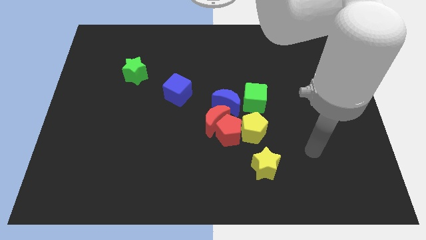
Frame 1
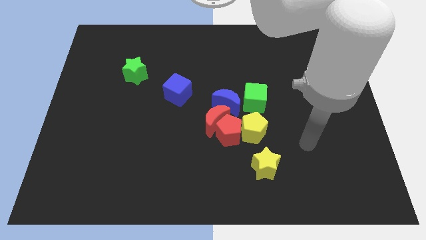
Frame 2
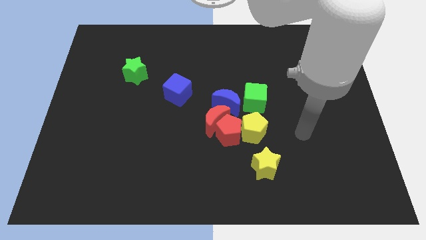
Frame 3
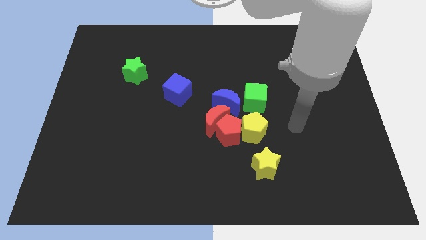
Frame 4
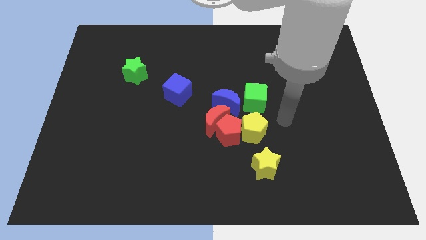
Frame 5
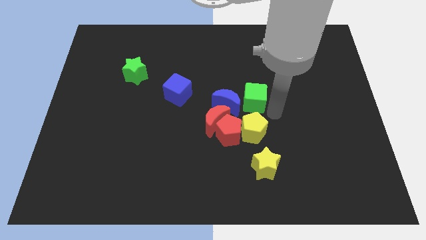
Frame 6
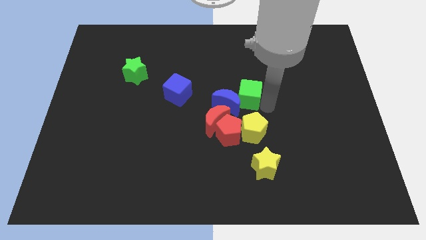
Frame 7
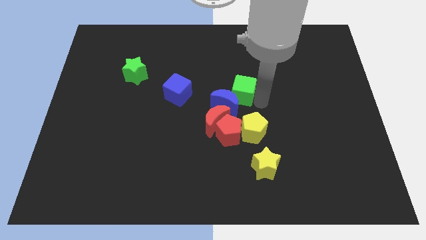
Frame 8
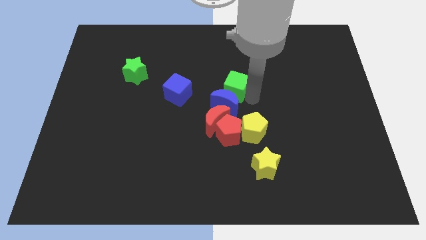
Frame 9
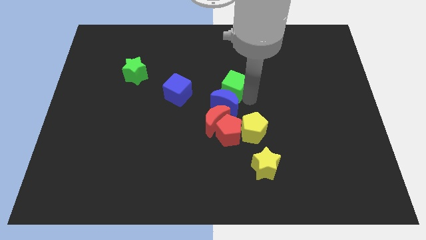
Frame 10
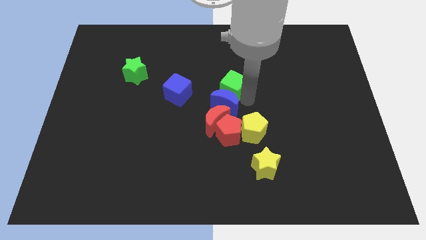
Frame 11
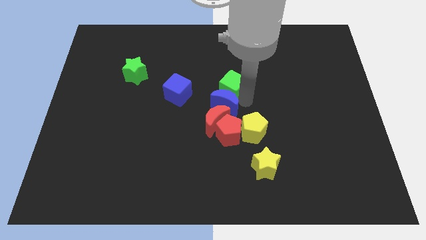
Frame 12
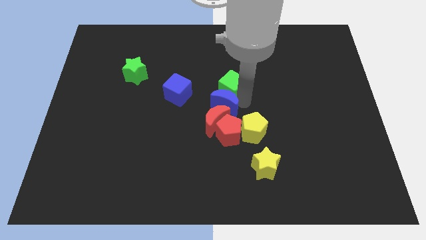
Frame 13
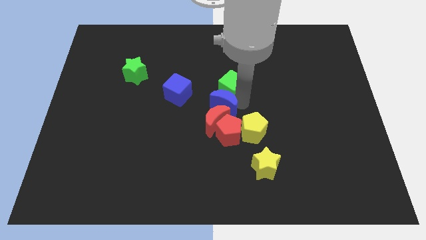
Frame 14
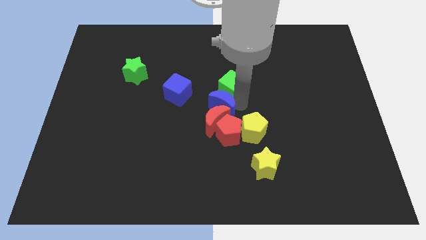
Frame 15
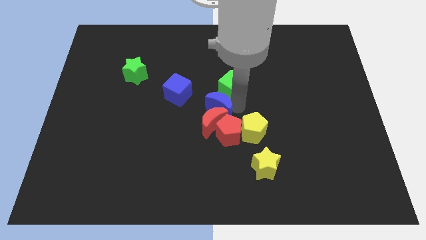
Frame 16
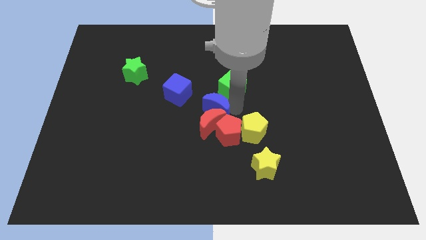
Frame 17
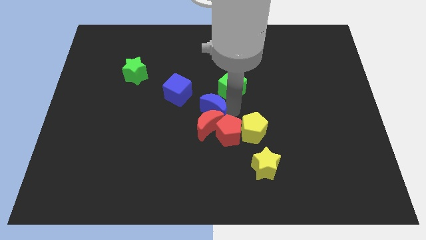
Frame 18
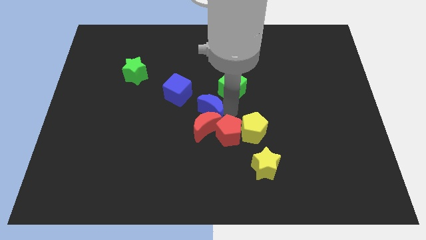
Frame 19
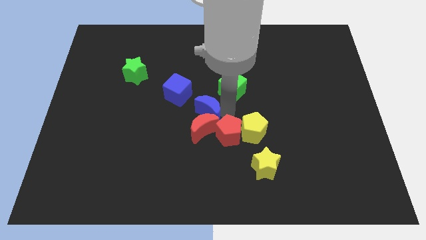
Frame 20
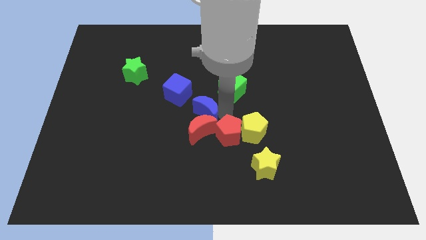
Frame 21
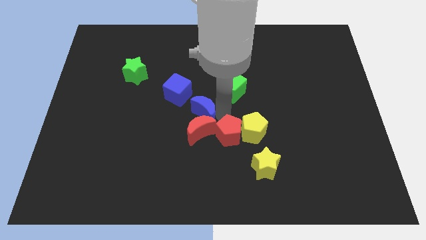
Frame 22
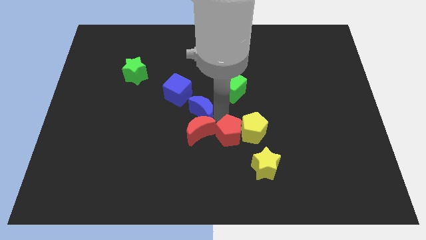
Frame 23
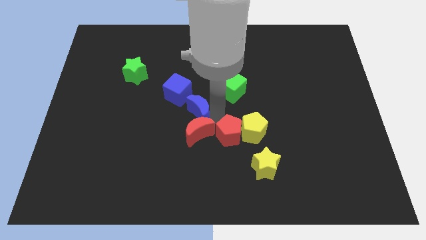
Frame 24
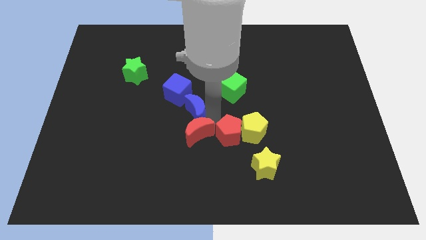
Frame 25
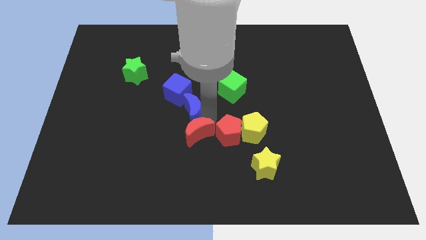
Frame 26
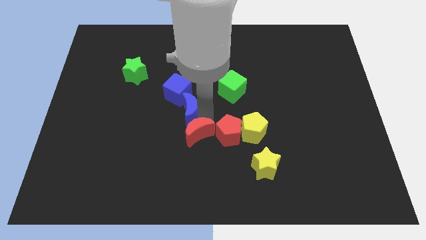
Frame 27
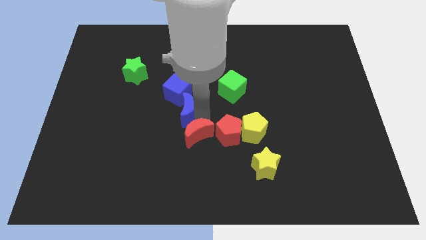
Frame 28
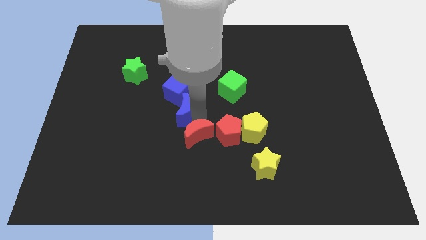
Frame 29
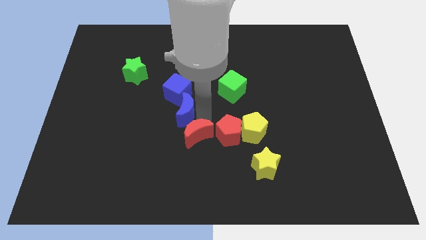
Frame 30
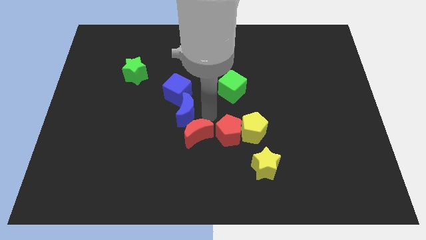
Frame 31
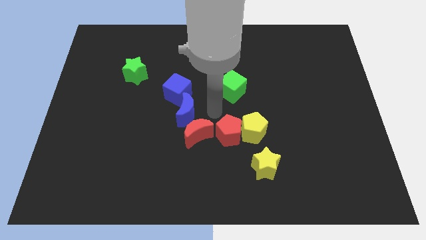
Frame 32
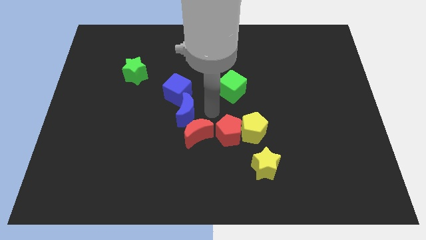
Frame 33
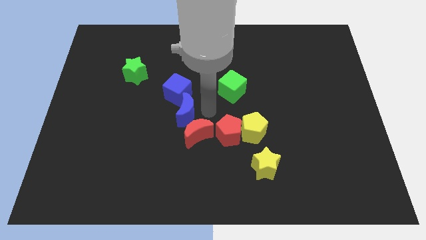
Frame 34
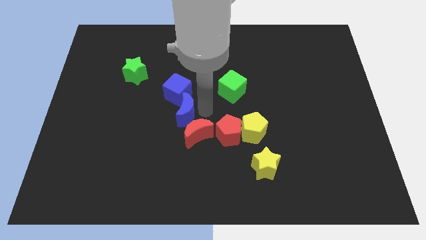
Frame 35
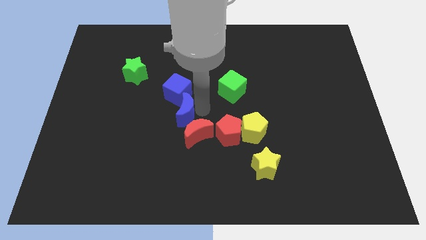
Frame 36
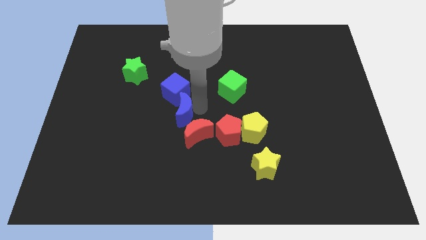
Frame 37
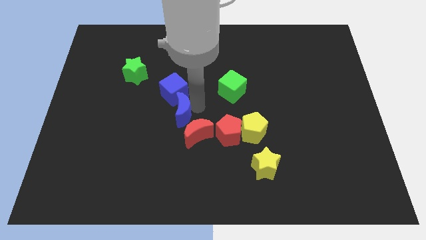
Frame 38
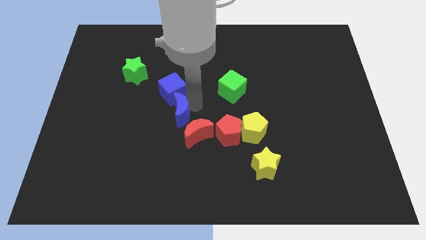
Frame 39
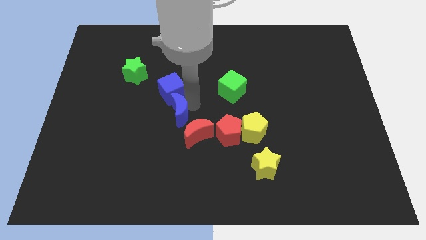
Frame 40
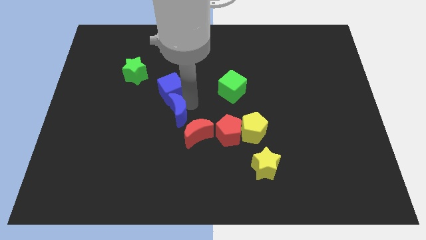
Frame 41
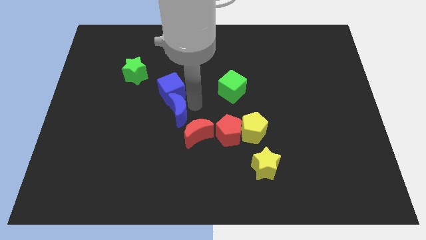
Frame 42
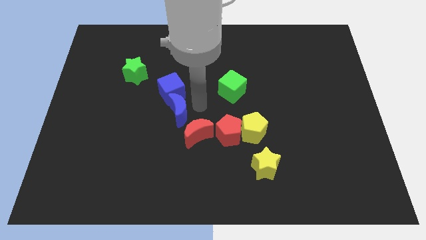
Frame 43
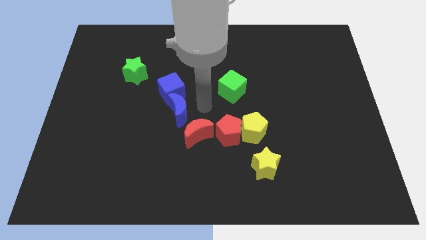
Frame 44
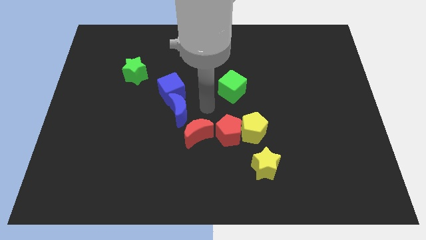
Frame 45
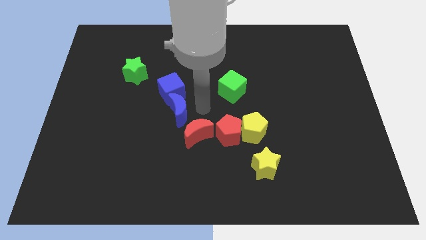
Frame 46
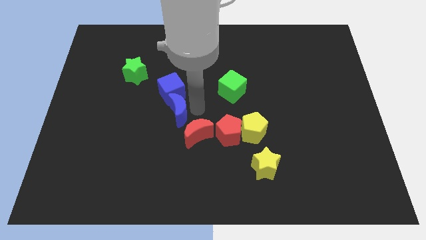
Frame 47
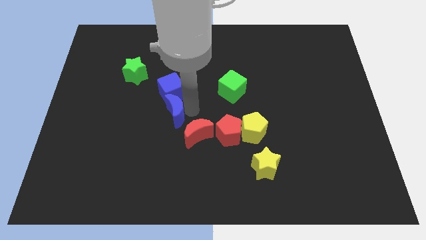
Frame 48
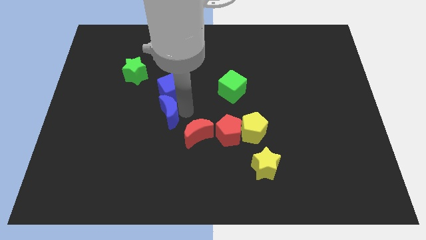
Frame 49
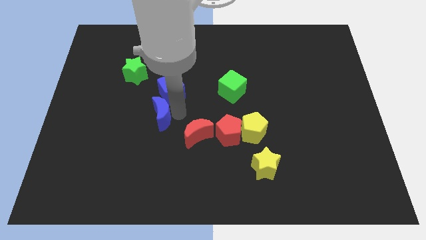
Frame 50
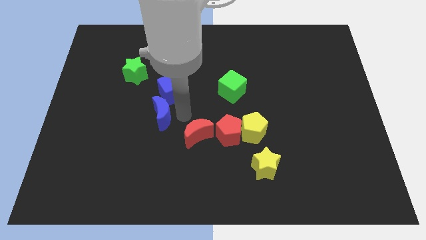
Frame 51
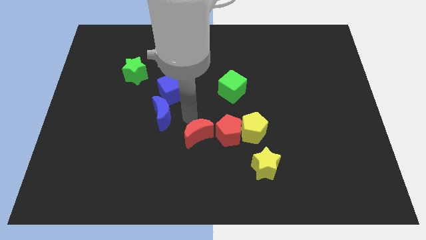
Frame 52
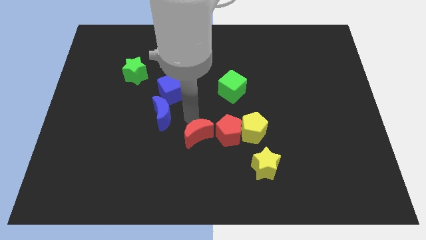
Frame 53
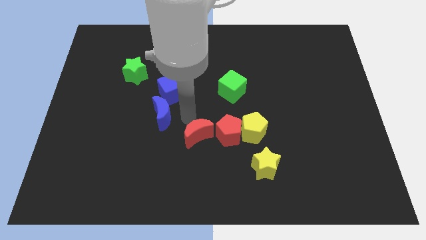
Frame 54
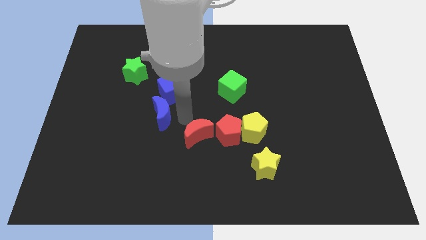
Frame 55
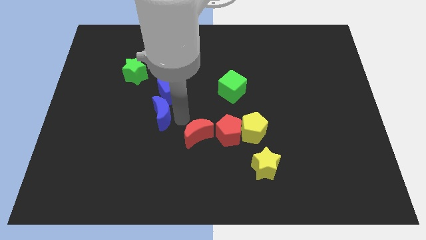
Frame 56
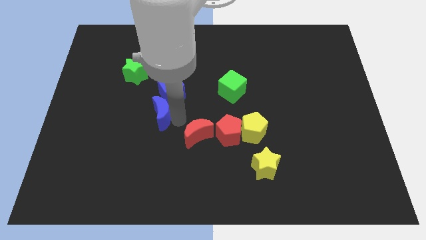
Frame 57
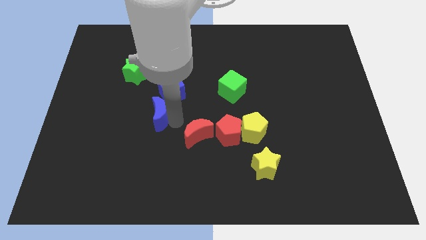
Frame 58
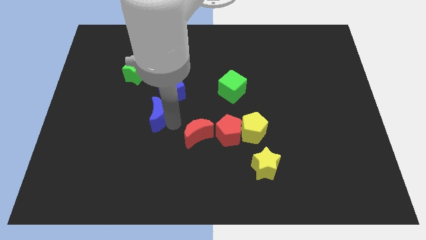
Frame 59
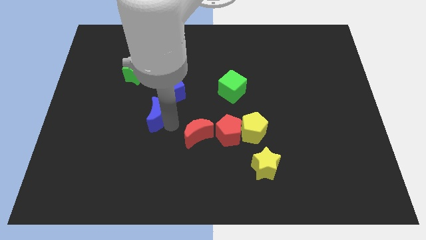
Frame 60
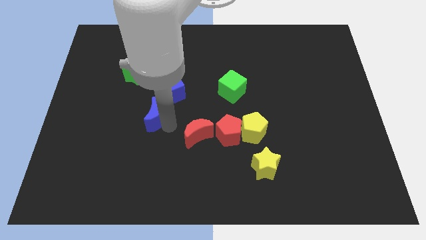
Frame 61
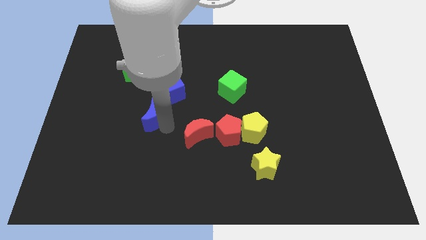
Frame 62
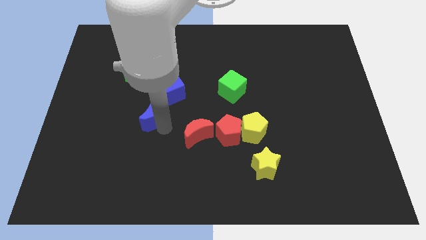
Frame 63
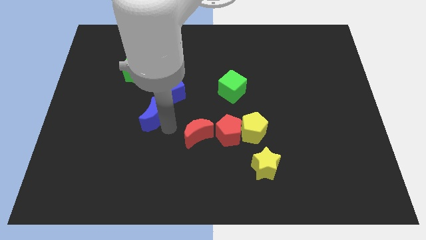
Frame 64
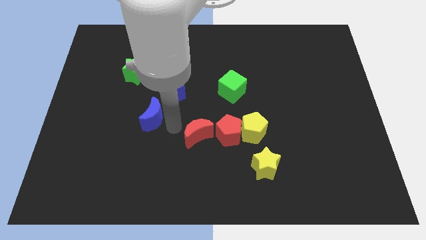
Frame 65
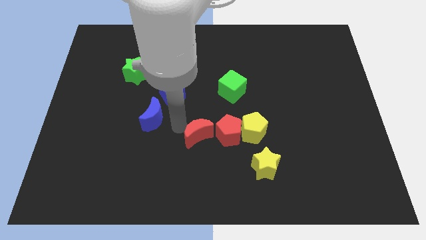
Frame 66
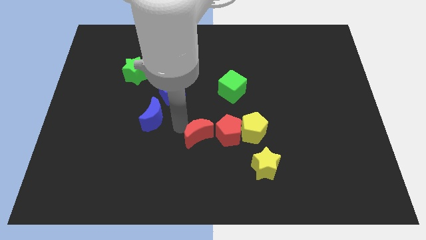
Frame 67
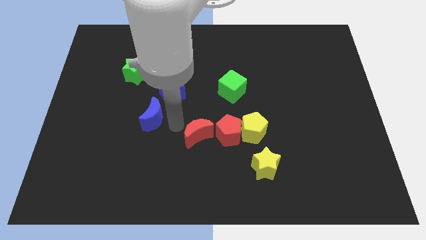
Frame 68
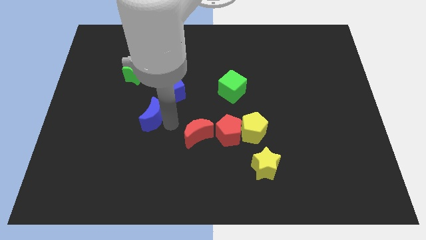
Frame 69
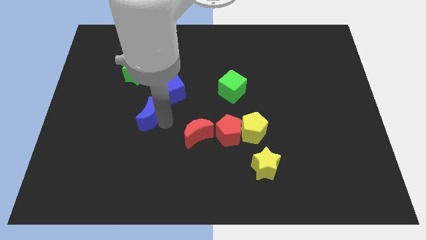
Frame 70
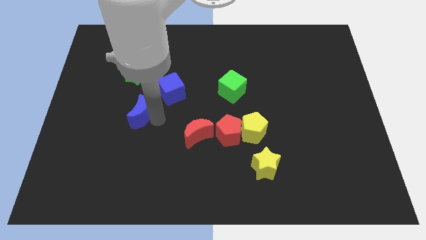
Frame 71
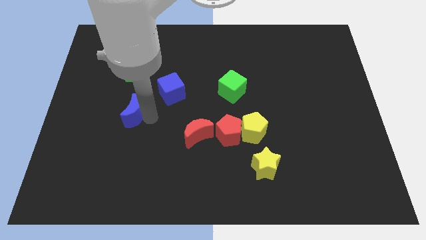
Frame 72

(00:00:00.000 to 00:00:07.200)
move the blue moon to the left

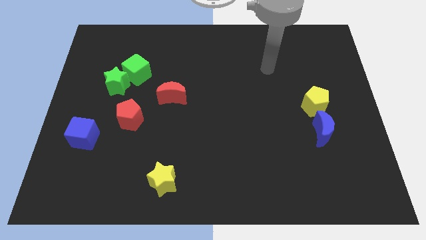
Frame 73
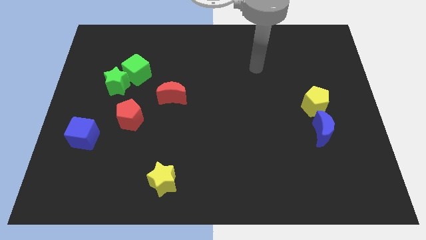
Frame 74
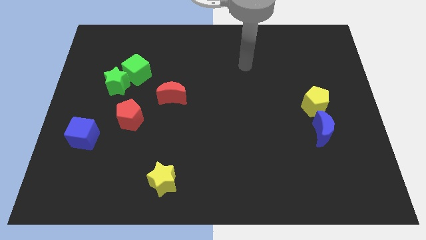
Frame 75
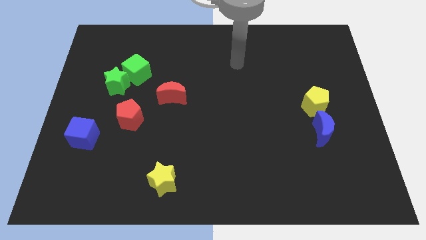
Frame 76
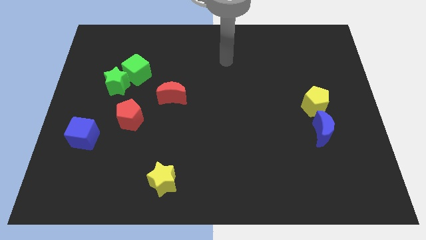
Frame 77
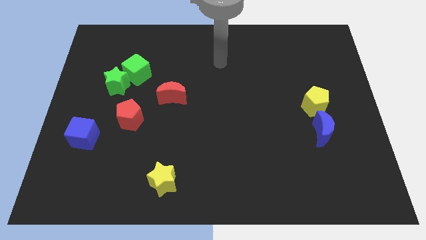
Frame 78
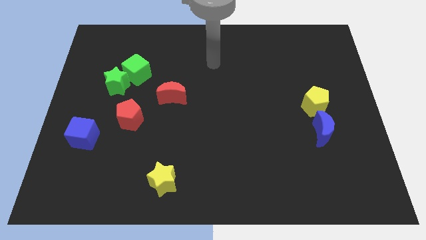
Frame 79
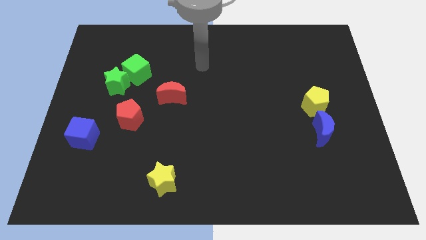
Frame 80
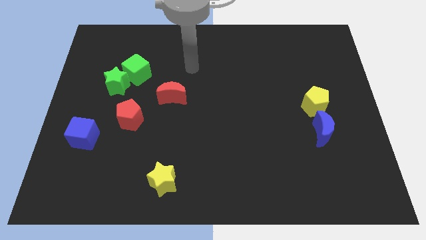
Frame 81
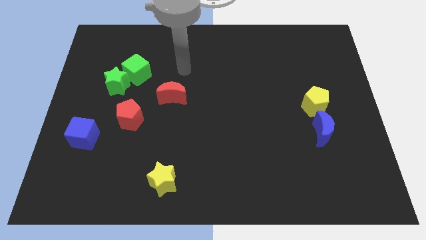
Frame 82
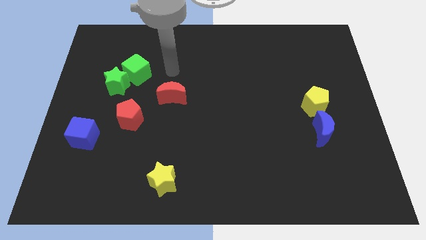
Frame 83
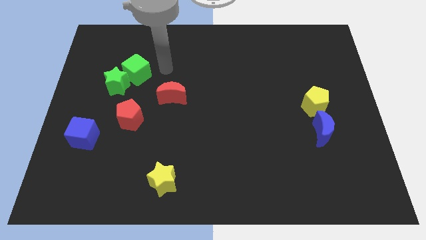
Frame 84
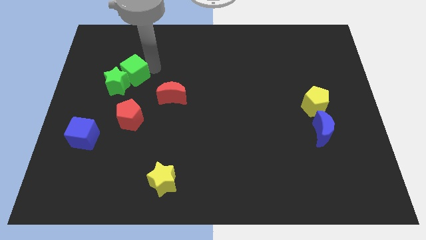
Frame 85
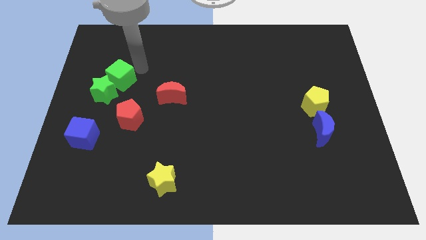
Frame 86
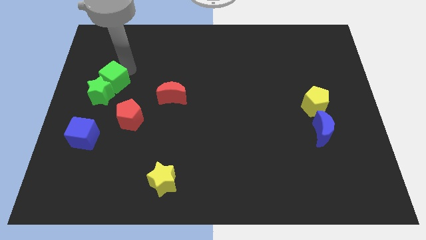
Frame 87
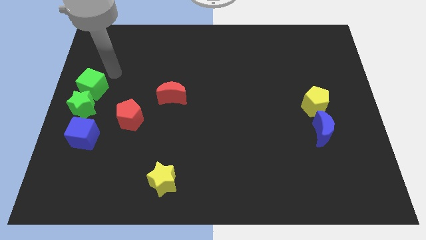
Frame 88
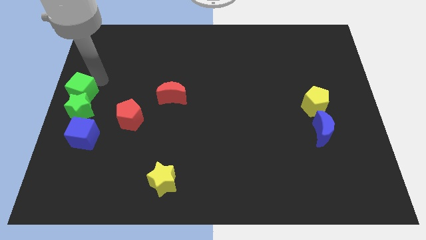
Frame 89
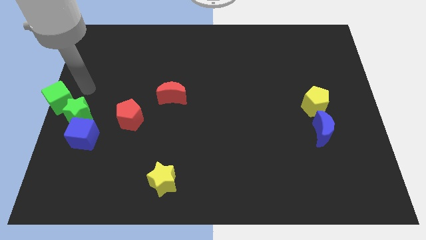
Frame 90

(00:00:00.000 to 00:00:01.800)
slightly push the green star downwards
